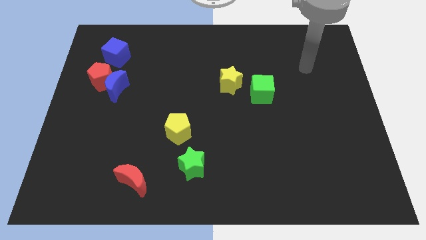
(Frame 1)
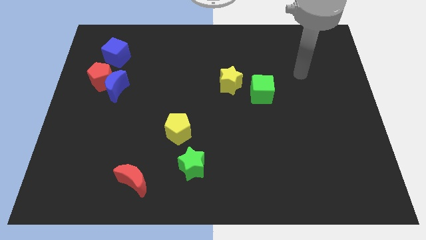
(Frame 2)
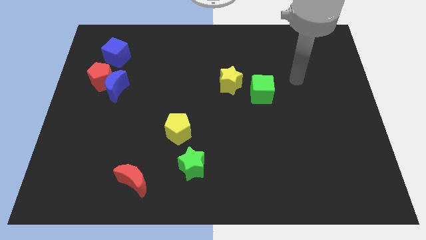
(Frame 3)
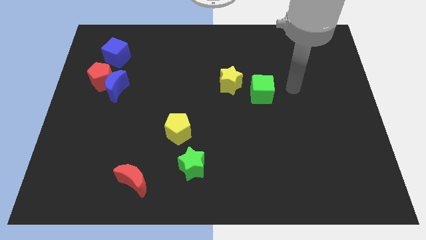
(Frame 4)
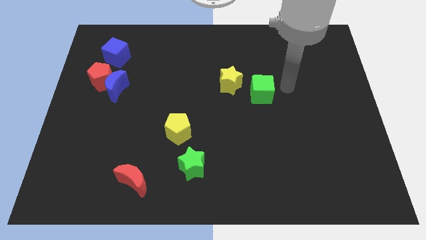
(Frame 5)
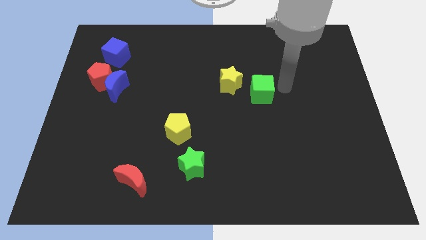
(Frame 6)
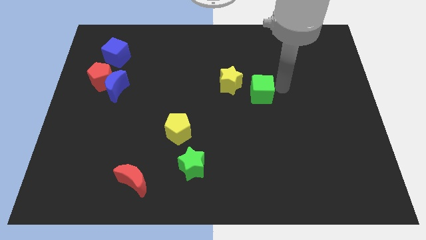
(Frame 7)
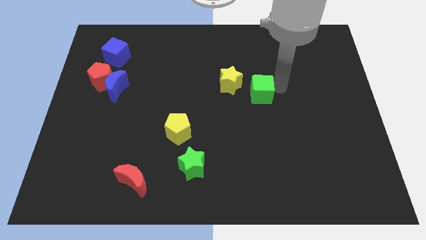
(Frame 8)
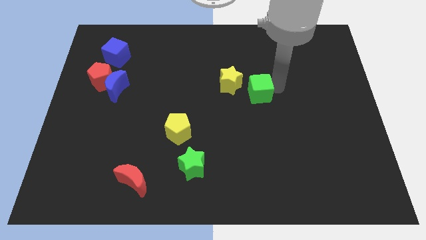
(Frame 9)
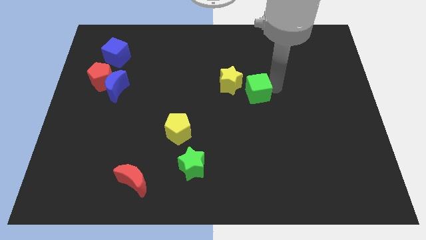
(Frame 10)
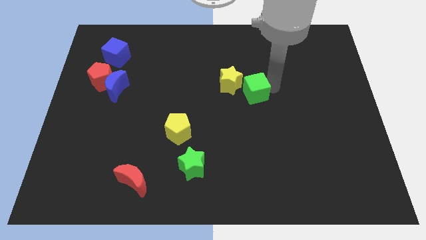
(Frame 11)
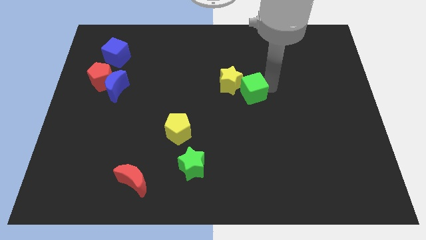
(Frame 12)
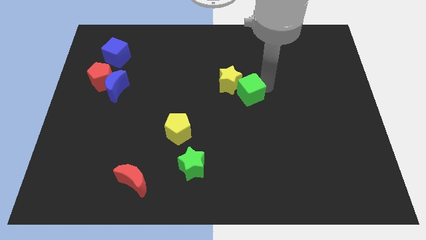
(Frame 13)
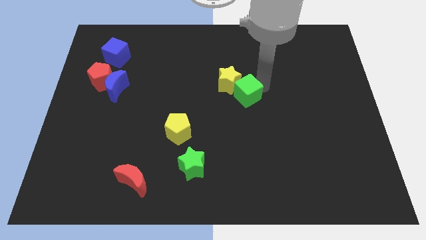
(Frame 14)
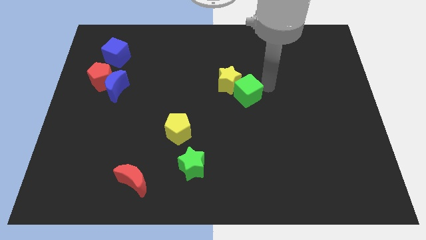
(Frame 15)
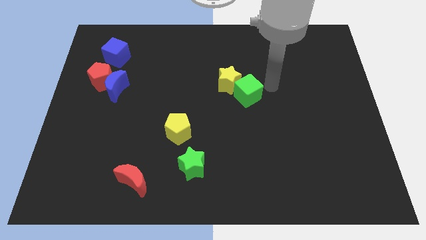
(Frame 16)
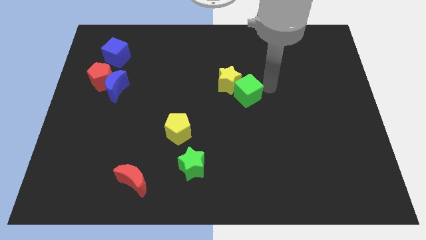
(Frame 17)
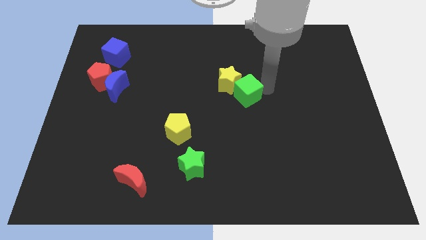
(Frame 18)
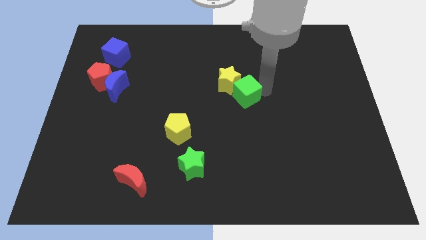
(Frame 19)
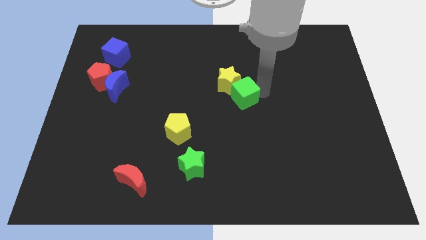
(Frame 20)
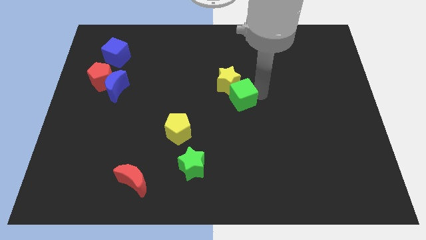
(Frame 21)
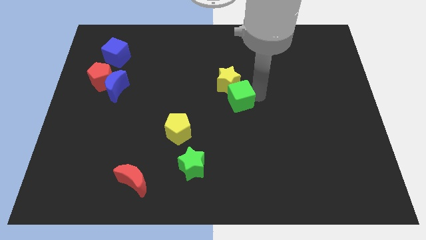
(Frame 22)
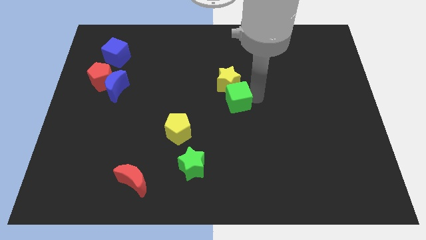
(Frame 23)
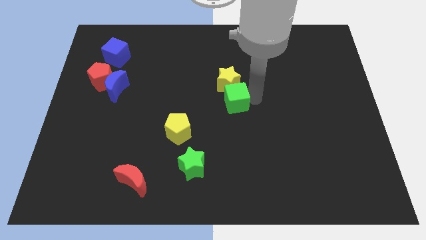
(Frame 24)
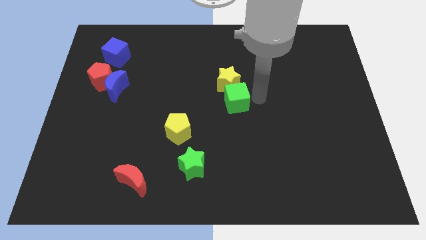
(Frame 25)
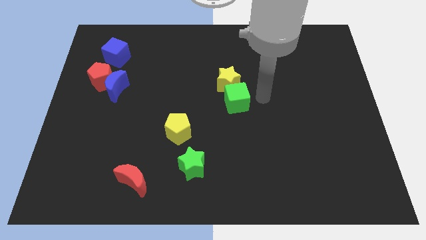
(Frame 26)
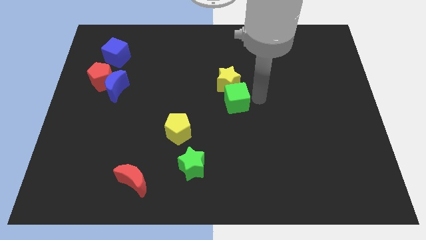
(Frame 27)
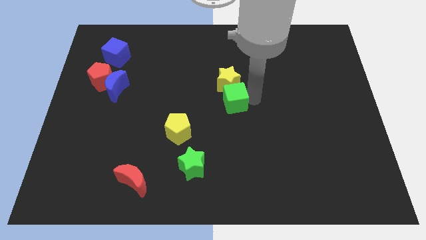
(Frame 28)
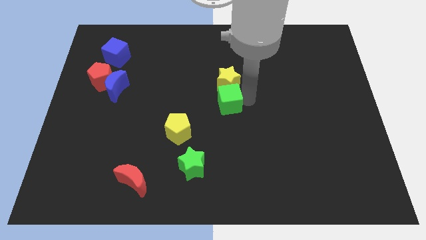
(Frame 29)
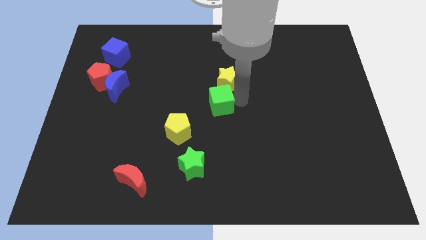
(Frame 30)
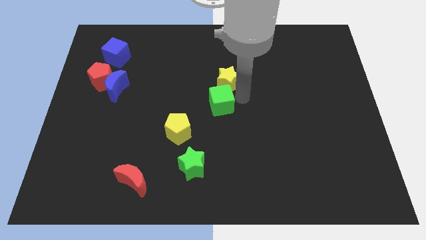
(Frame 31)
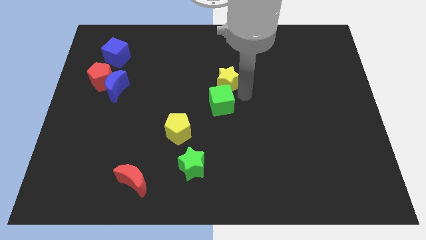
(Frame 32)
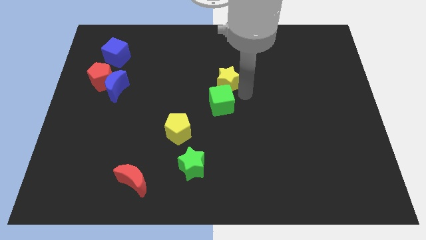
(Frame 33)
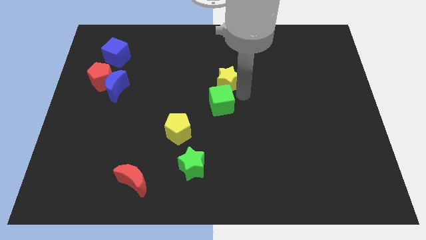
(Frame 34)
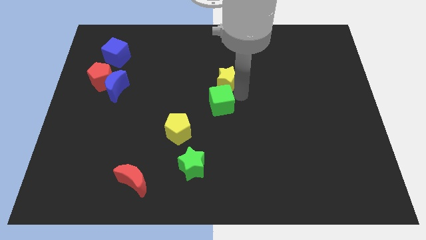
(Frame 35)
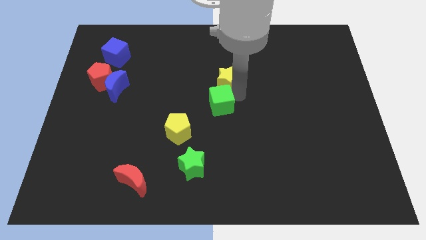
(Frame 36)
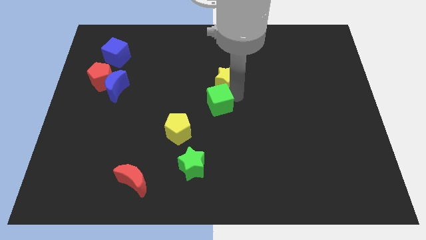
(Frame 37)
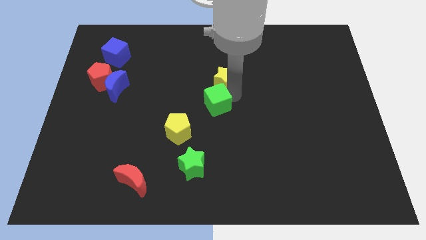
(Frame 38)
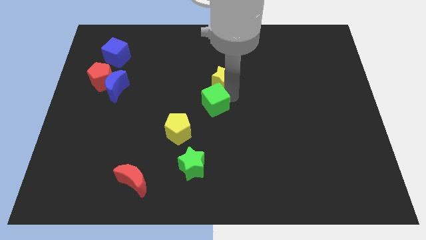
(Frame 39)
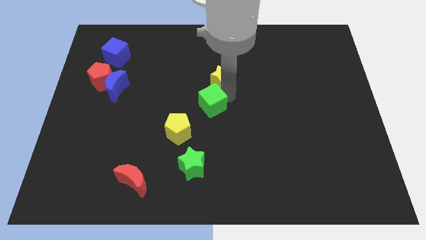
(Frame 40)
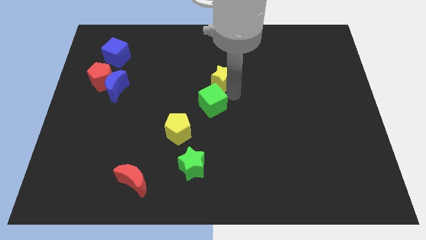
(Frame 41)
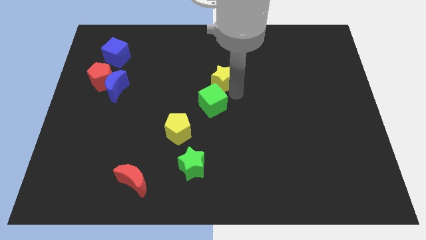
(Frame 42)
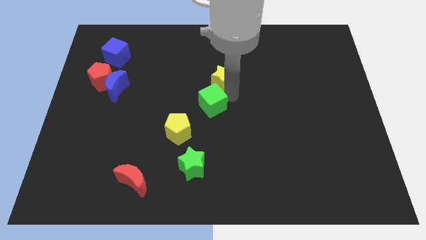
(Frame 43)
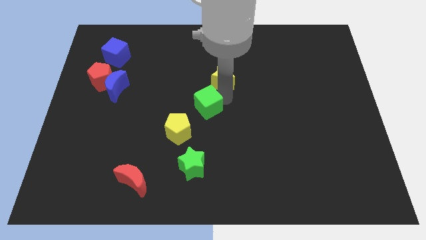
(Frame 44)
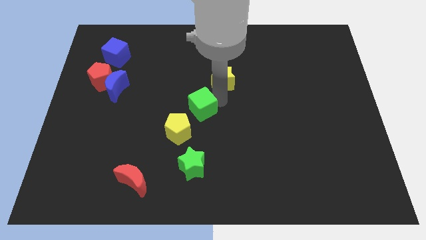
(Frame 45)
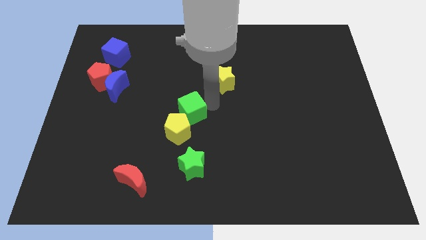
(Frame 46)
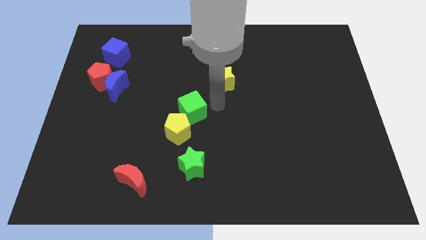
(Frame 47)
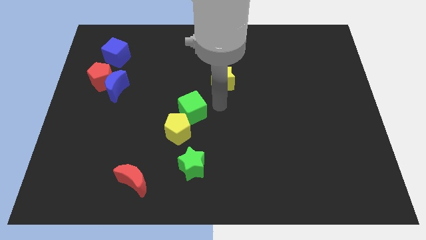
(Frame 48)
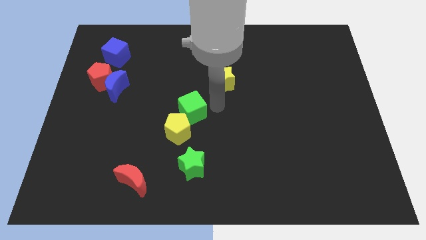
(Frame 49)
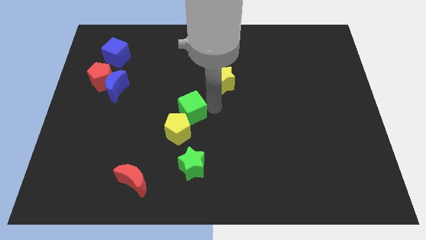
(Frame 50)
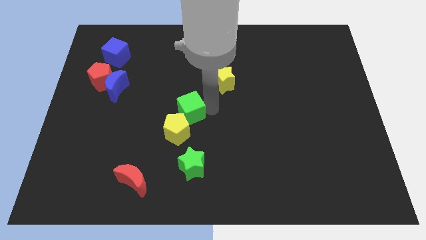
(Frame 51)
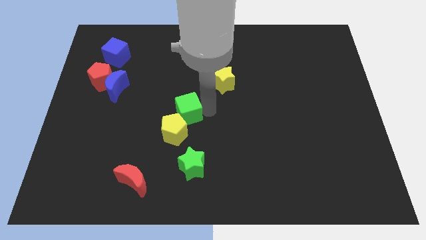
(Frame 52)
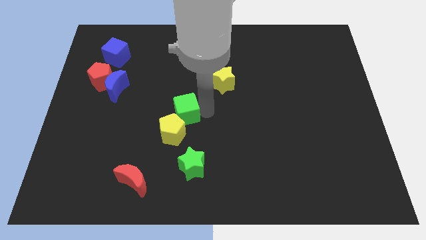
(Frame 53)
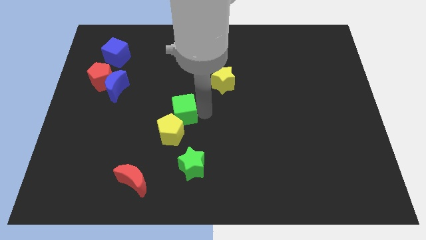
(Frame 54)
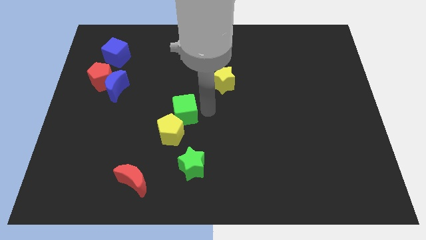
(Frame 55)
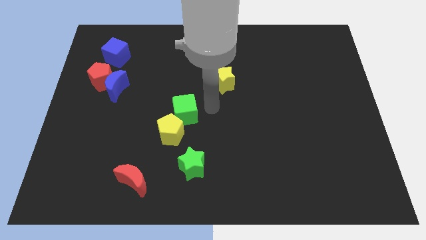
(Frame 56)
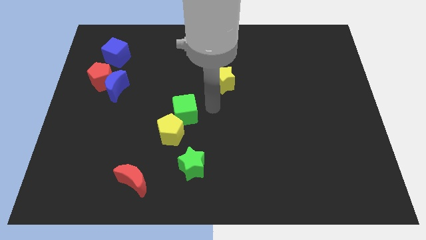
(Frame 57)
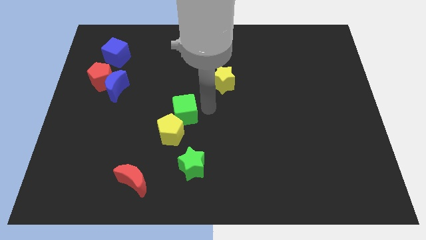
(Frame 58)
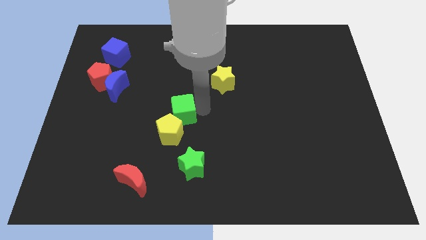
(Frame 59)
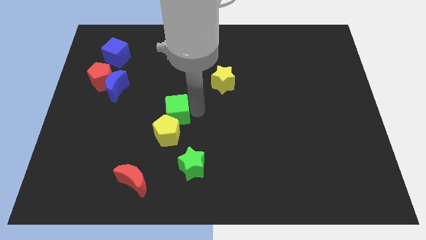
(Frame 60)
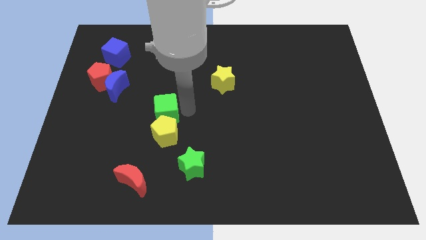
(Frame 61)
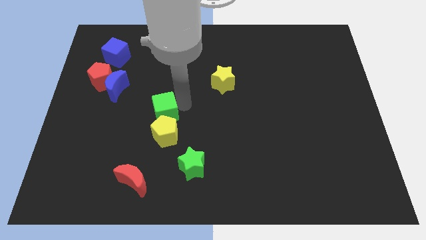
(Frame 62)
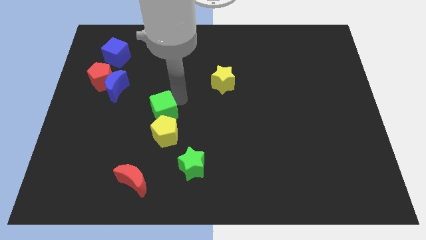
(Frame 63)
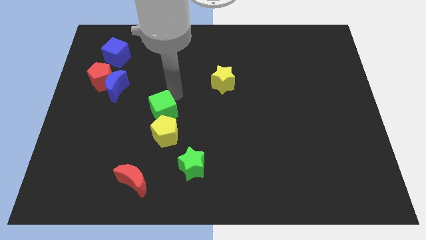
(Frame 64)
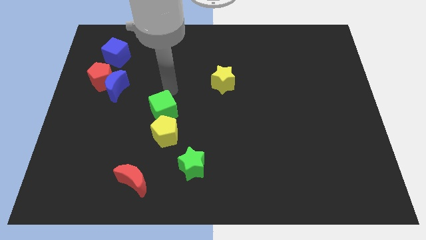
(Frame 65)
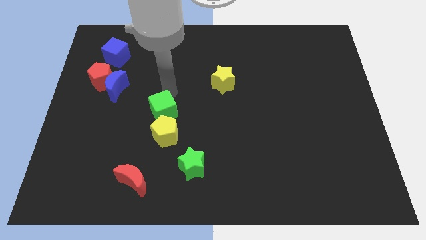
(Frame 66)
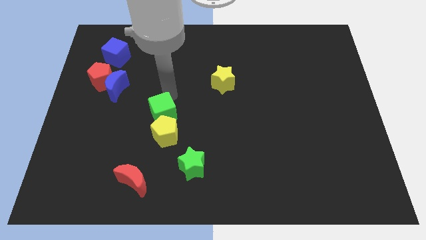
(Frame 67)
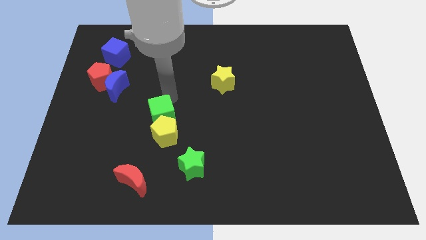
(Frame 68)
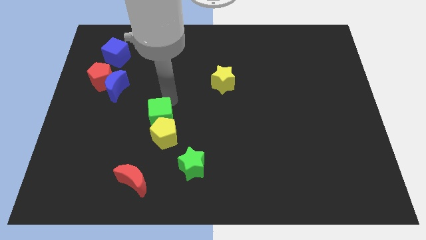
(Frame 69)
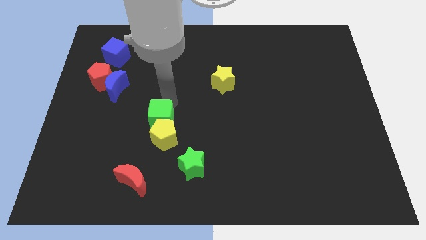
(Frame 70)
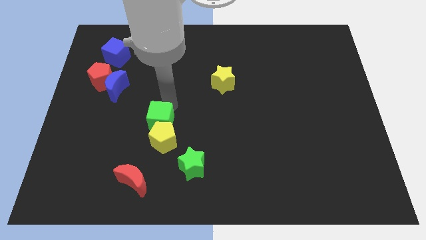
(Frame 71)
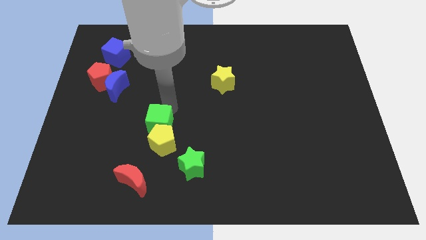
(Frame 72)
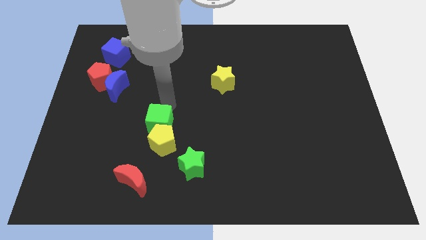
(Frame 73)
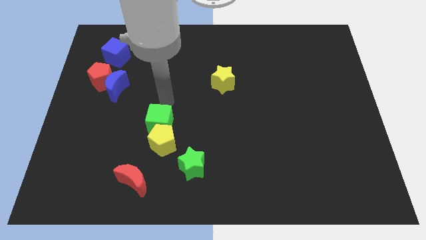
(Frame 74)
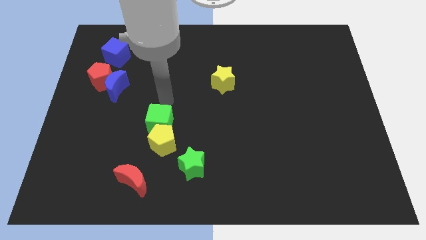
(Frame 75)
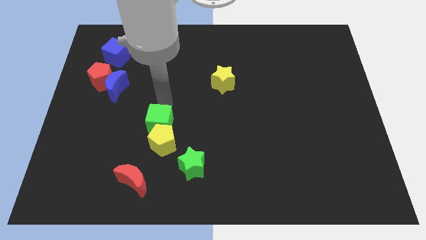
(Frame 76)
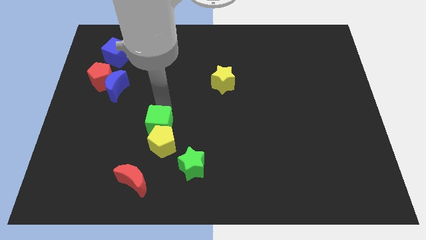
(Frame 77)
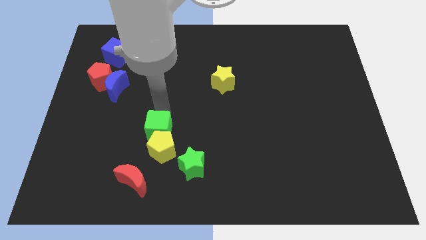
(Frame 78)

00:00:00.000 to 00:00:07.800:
slide the green cube down and then left

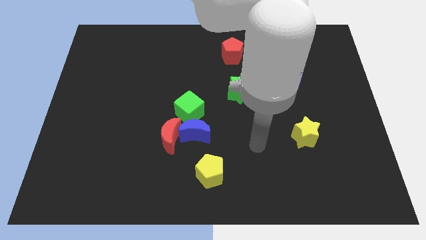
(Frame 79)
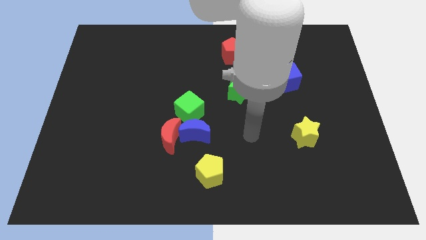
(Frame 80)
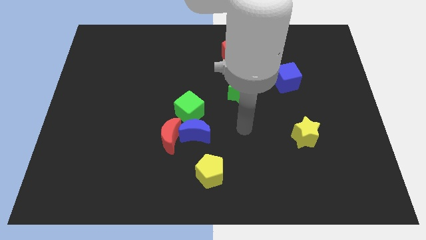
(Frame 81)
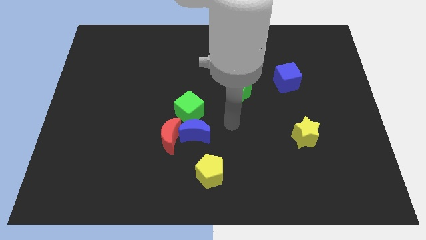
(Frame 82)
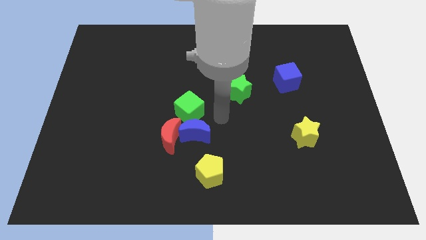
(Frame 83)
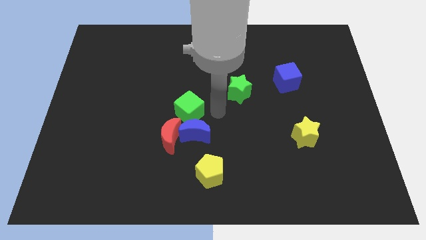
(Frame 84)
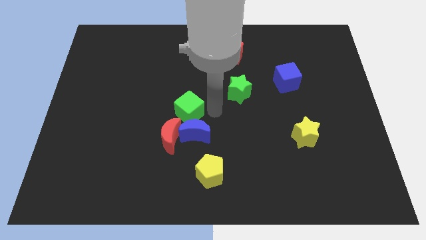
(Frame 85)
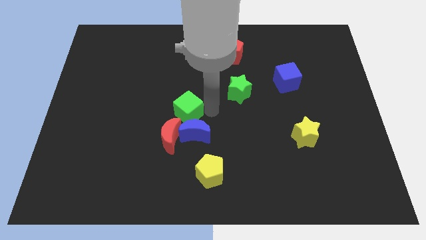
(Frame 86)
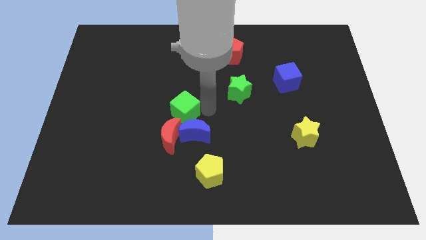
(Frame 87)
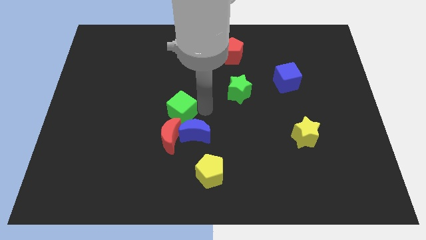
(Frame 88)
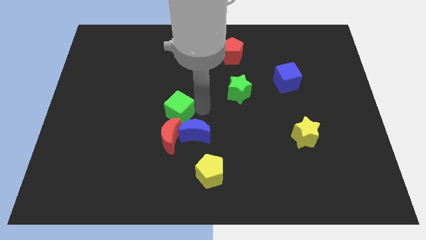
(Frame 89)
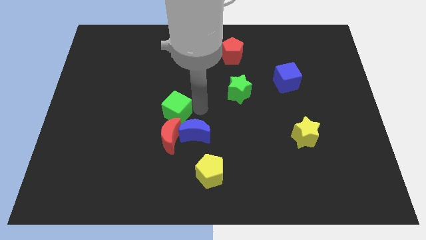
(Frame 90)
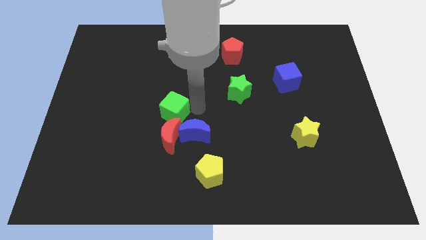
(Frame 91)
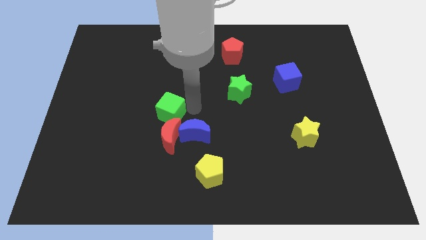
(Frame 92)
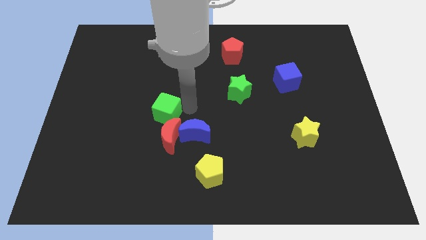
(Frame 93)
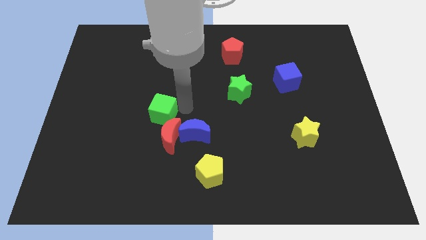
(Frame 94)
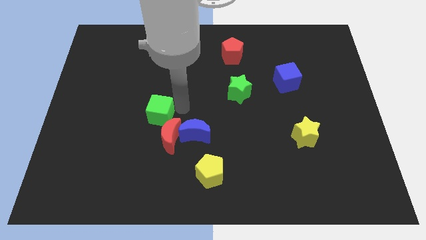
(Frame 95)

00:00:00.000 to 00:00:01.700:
move the green cube left a bit
